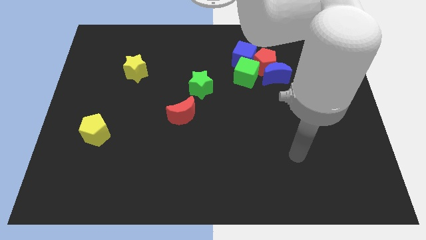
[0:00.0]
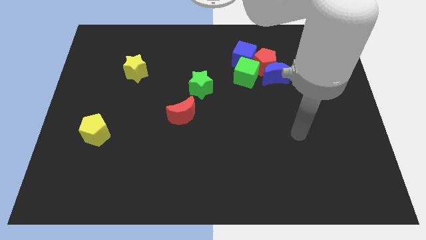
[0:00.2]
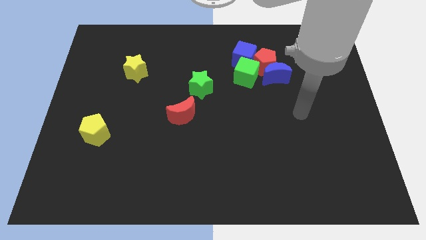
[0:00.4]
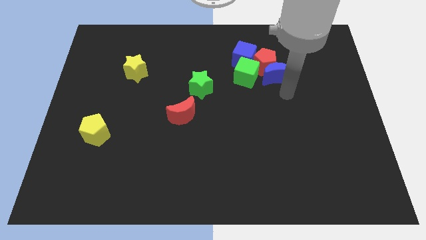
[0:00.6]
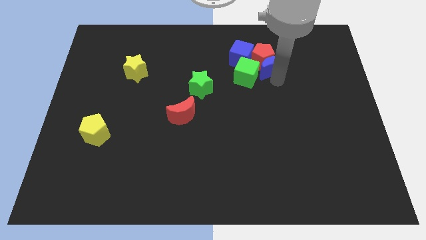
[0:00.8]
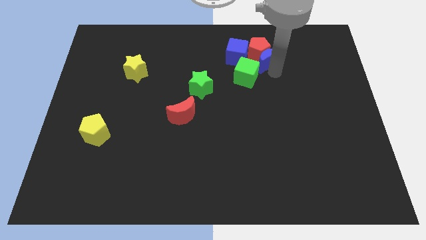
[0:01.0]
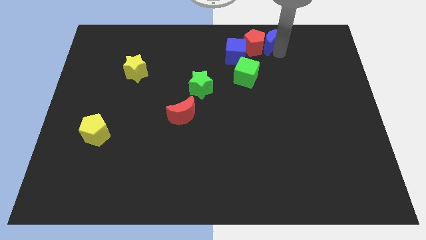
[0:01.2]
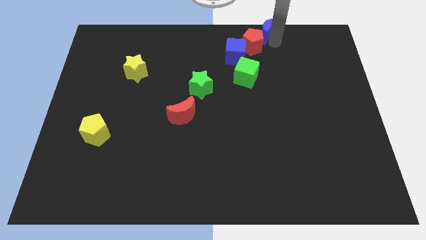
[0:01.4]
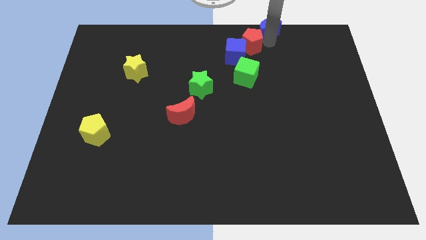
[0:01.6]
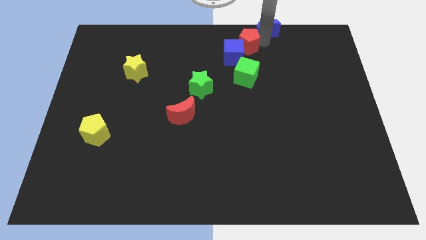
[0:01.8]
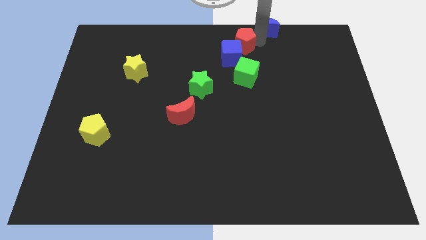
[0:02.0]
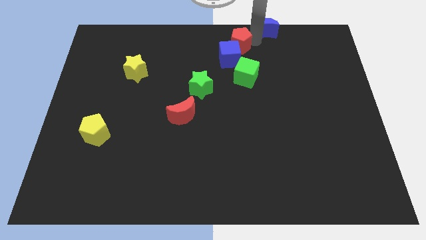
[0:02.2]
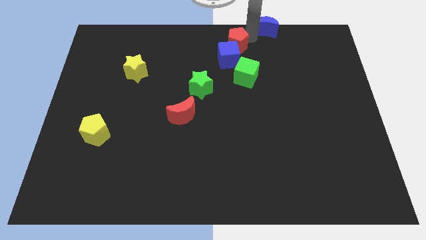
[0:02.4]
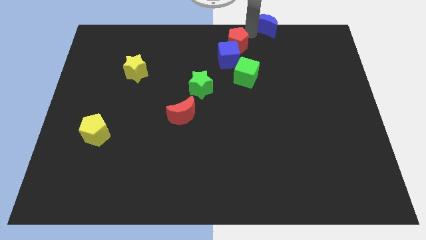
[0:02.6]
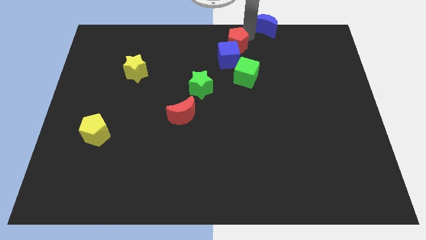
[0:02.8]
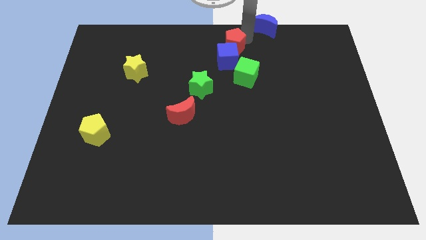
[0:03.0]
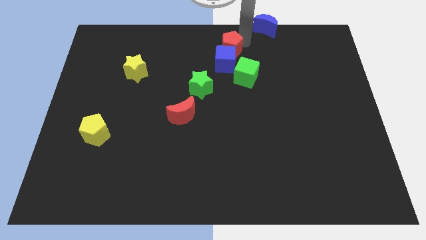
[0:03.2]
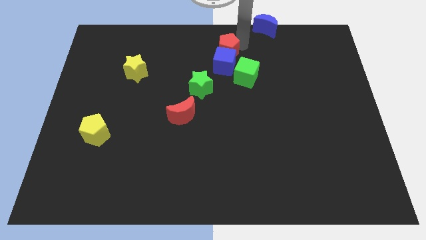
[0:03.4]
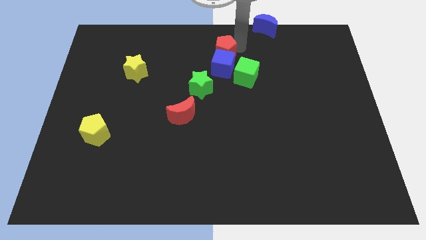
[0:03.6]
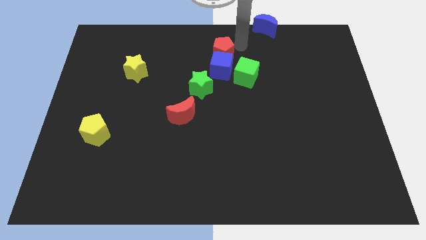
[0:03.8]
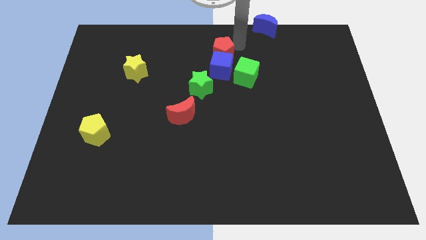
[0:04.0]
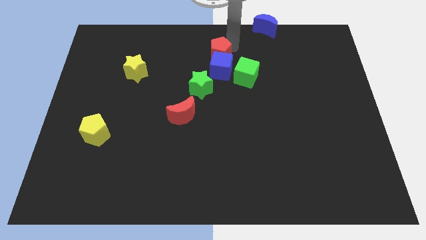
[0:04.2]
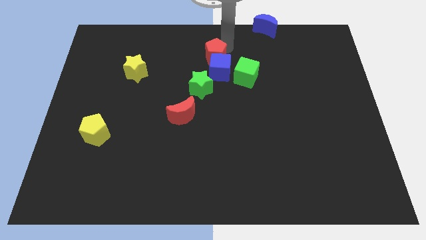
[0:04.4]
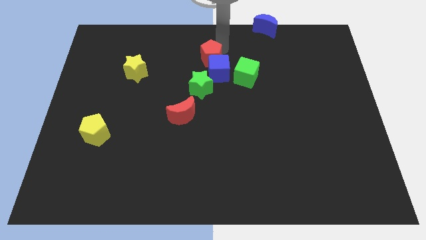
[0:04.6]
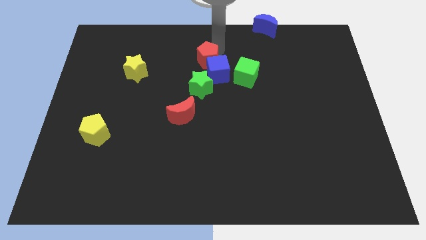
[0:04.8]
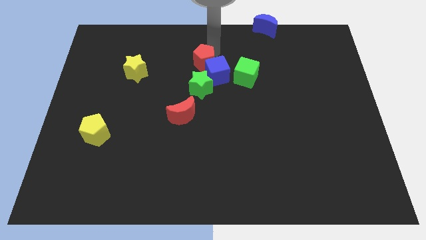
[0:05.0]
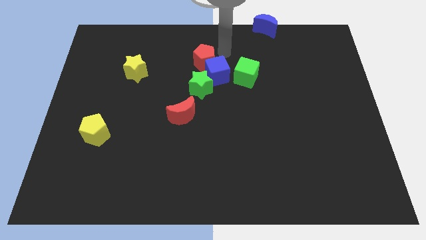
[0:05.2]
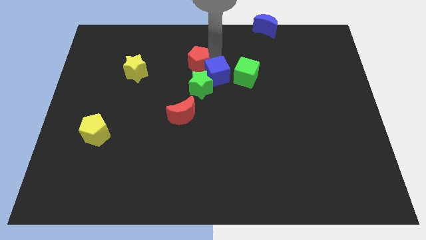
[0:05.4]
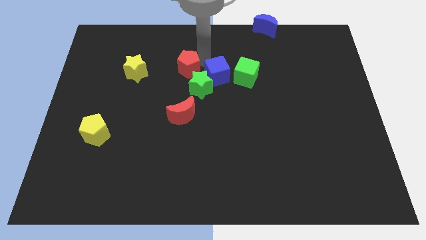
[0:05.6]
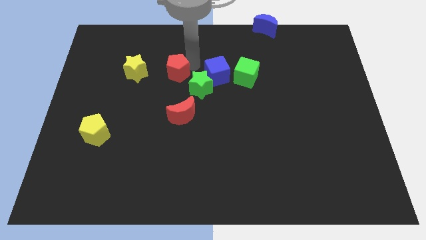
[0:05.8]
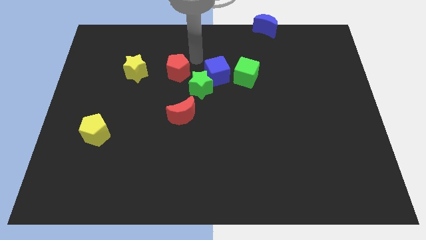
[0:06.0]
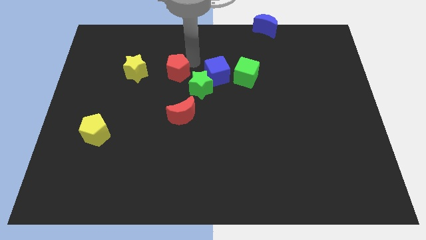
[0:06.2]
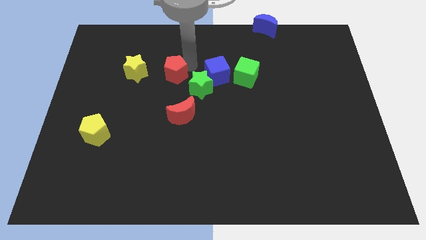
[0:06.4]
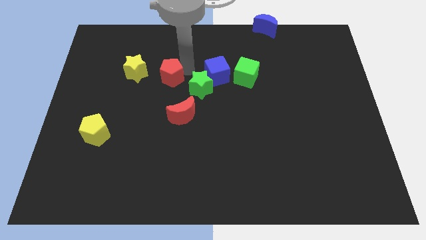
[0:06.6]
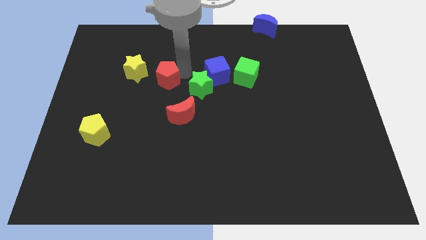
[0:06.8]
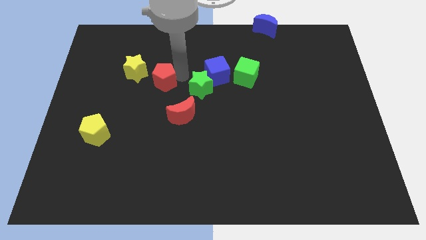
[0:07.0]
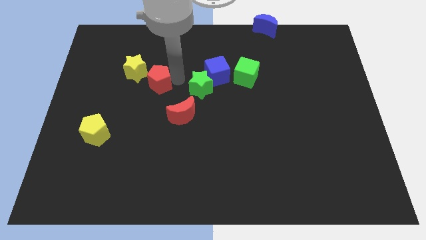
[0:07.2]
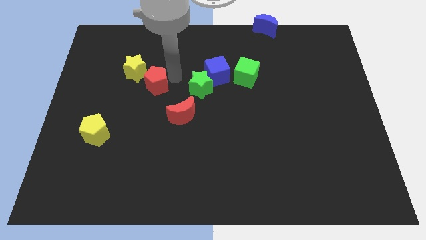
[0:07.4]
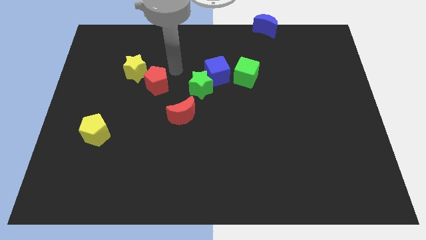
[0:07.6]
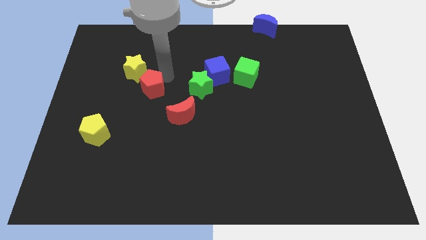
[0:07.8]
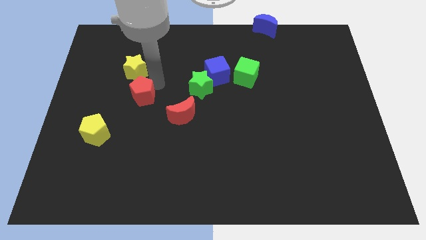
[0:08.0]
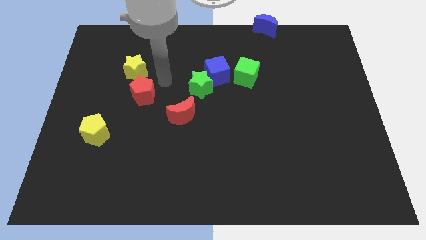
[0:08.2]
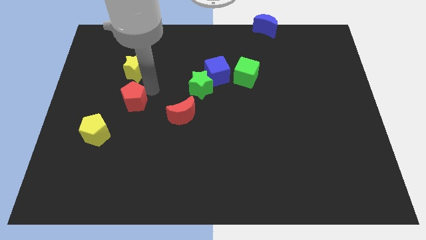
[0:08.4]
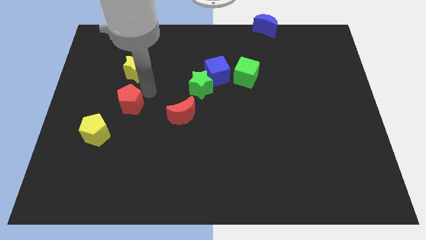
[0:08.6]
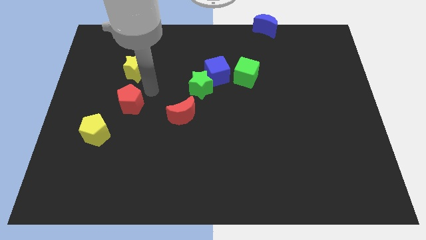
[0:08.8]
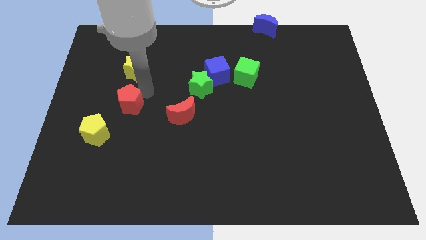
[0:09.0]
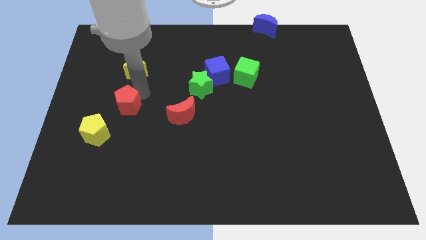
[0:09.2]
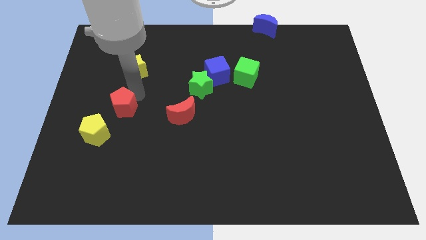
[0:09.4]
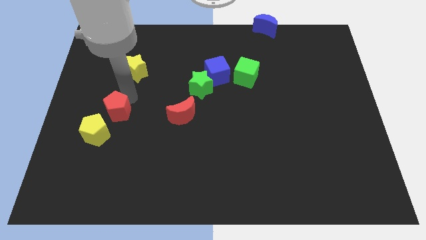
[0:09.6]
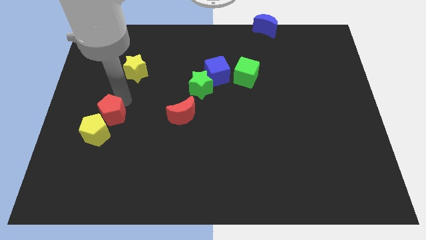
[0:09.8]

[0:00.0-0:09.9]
slide the red pentagon to the yellow pentagon

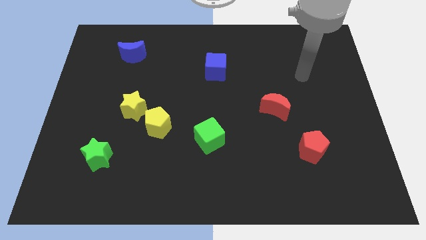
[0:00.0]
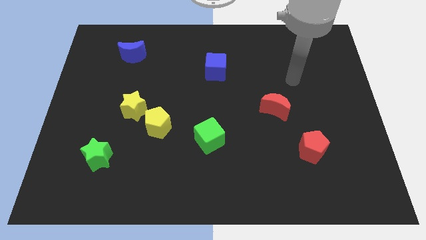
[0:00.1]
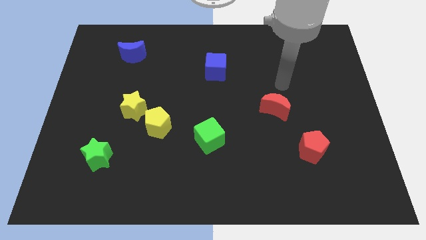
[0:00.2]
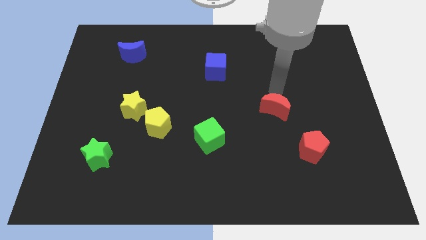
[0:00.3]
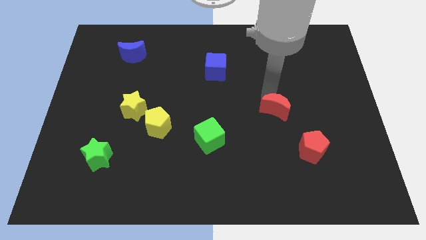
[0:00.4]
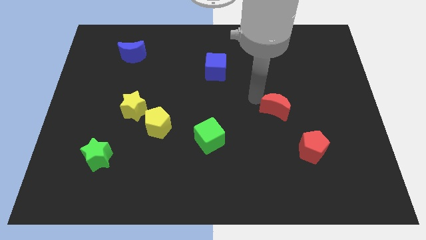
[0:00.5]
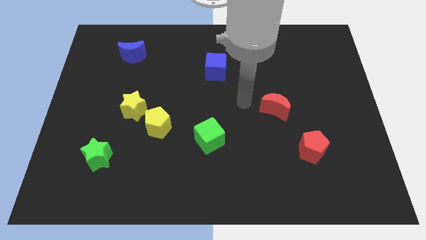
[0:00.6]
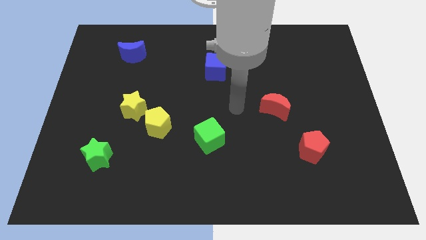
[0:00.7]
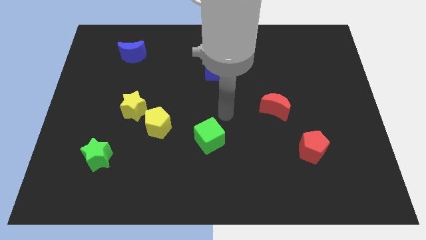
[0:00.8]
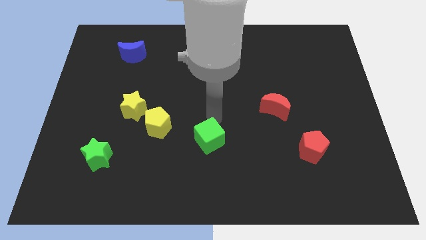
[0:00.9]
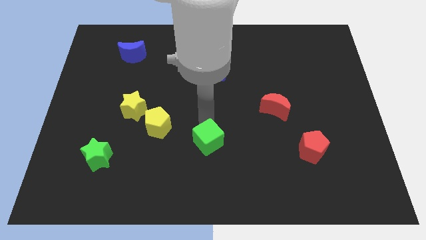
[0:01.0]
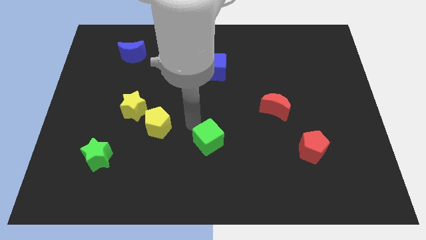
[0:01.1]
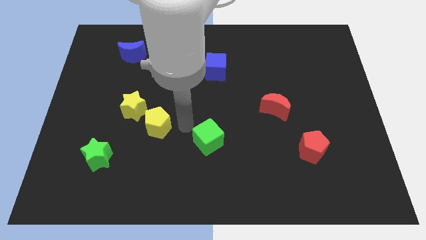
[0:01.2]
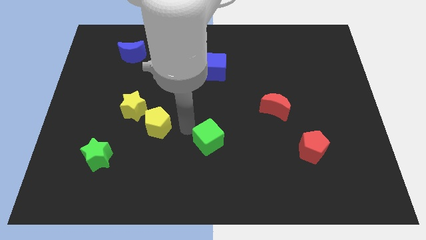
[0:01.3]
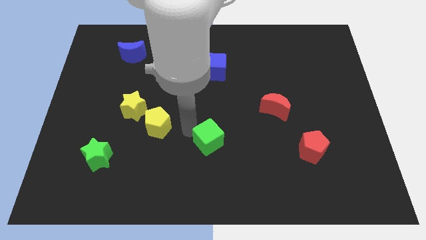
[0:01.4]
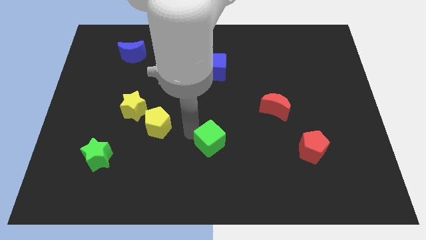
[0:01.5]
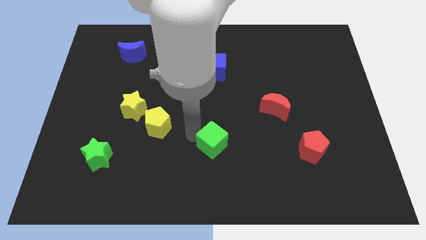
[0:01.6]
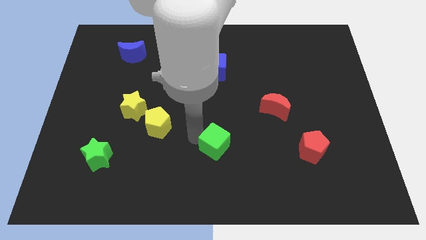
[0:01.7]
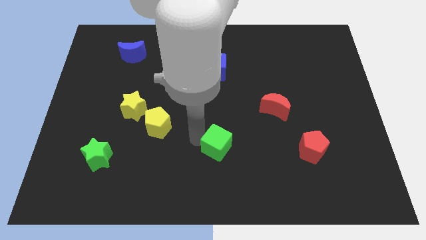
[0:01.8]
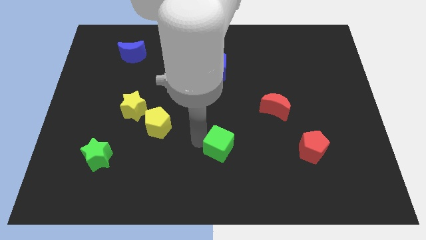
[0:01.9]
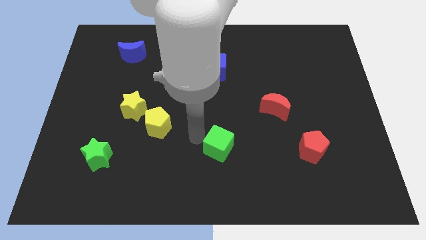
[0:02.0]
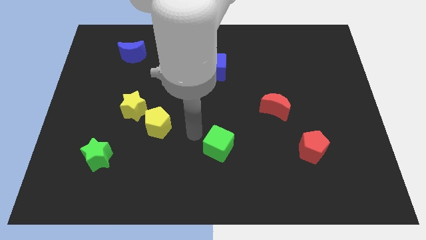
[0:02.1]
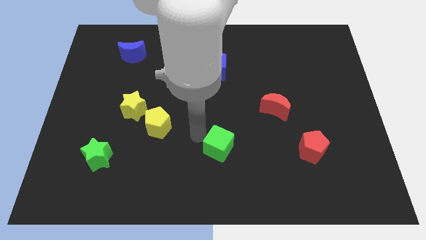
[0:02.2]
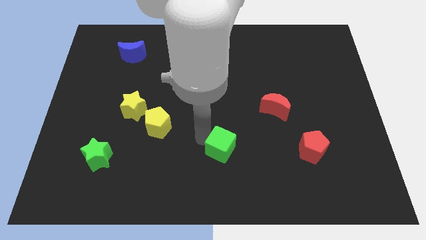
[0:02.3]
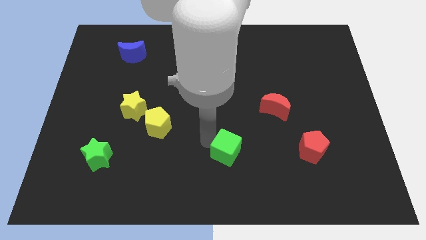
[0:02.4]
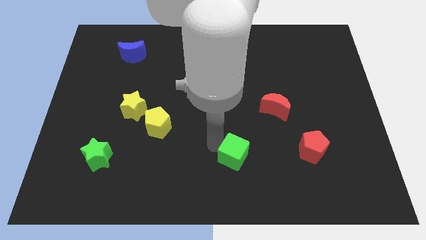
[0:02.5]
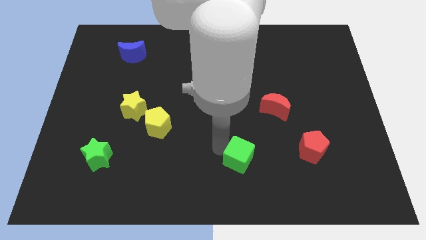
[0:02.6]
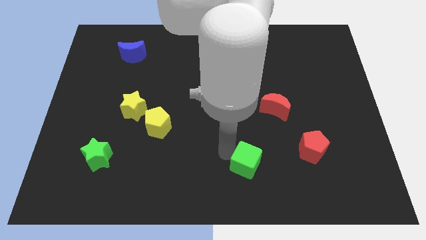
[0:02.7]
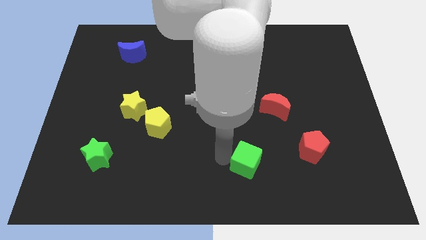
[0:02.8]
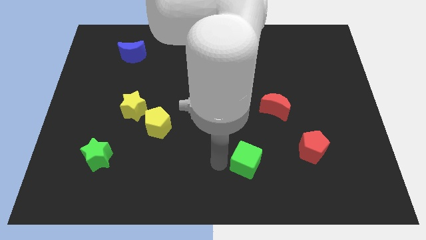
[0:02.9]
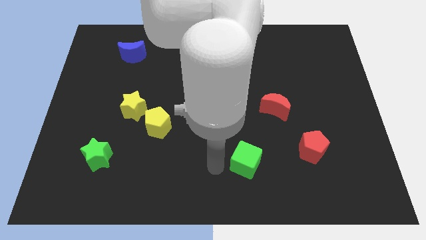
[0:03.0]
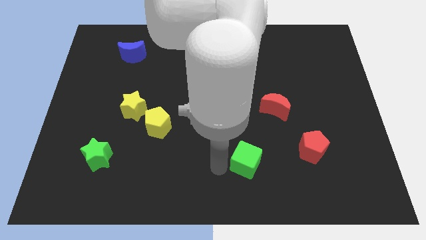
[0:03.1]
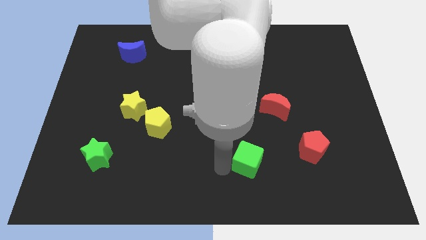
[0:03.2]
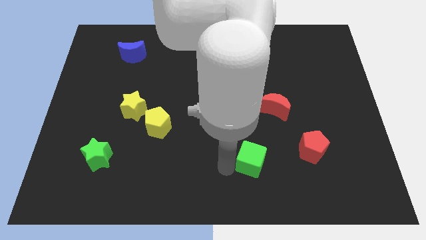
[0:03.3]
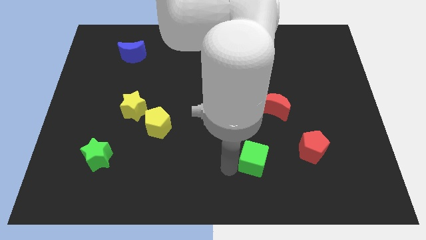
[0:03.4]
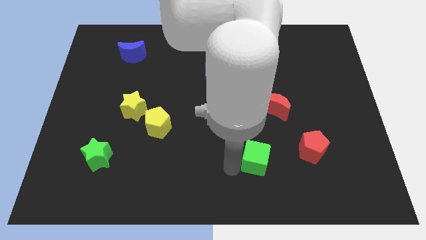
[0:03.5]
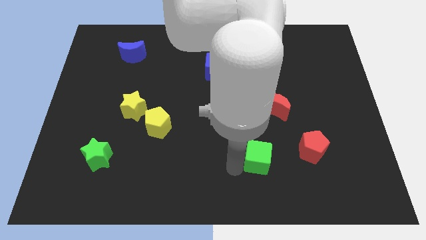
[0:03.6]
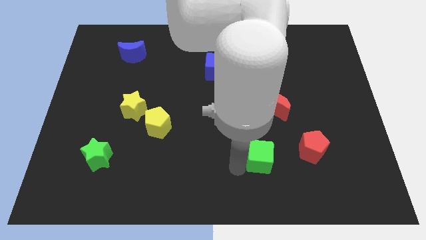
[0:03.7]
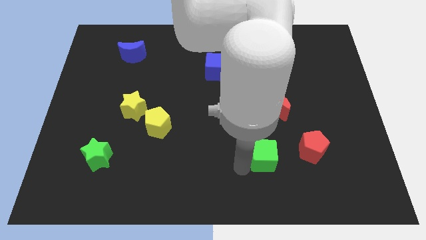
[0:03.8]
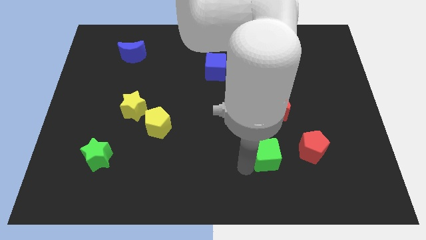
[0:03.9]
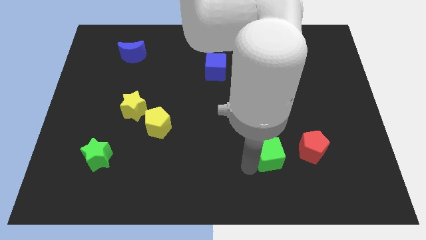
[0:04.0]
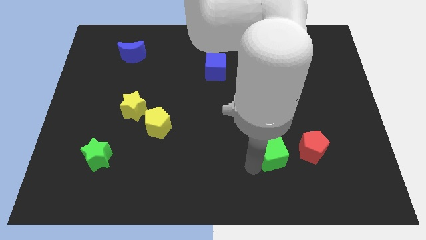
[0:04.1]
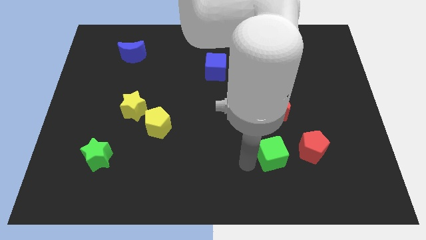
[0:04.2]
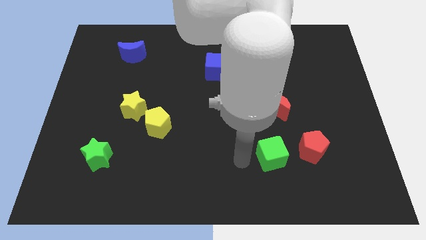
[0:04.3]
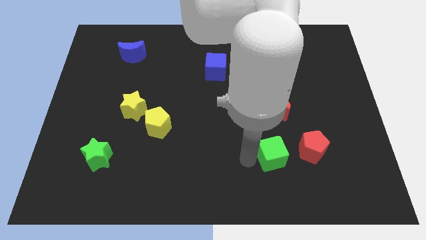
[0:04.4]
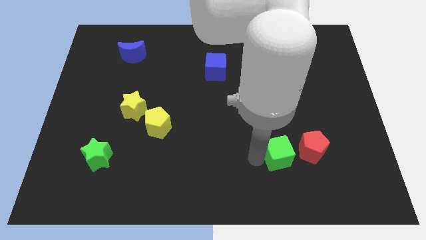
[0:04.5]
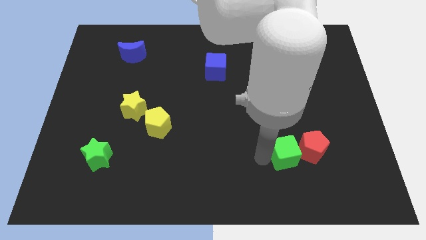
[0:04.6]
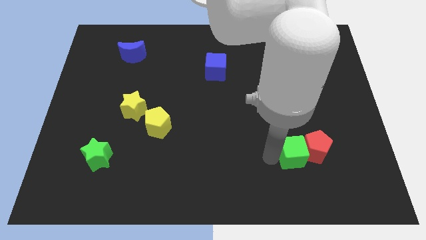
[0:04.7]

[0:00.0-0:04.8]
put the green cube next to the red pentagon
